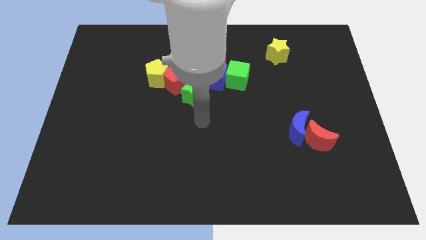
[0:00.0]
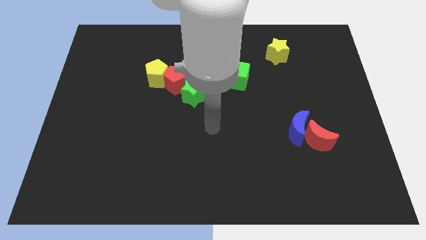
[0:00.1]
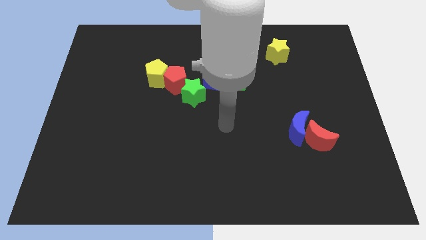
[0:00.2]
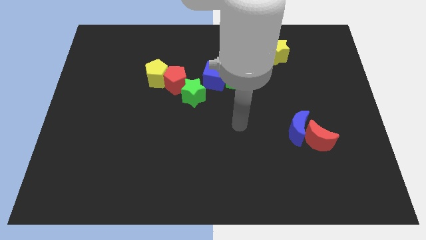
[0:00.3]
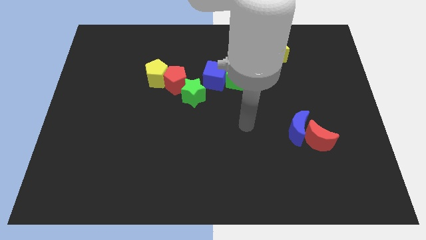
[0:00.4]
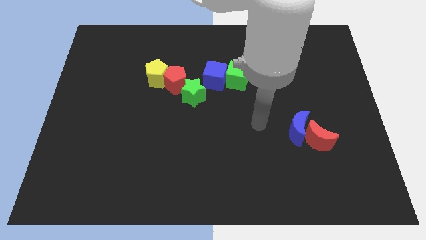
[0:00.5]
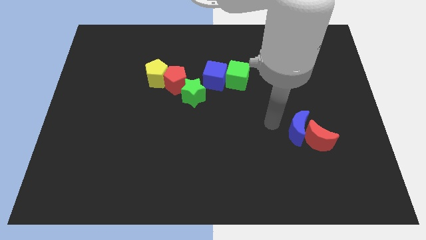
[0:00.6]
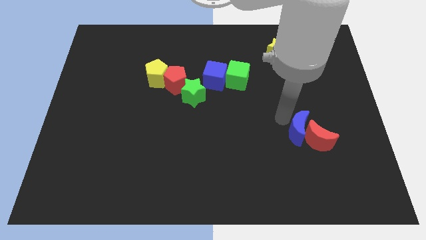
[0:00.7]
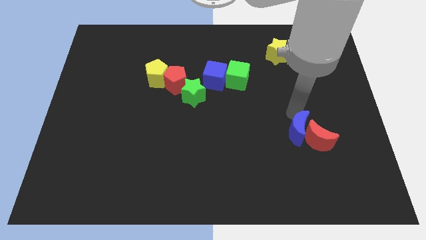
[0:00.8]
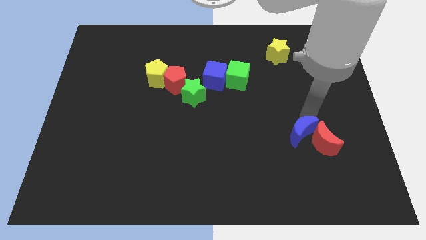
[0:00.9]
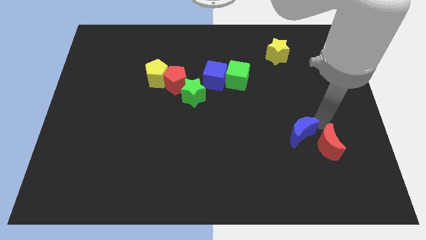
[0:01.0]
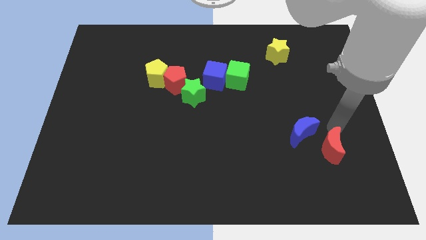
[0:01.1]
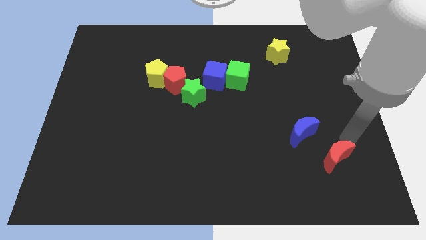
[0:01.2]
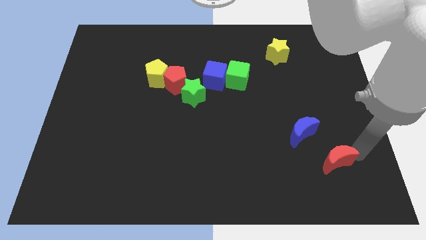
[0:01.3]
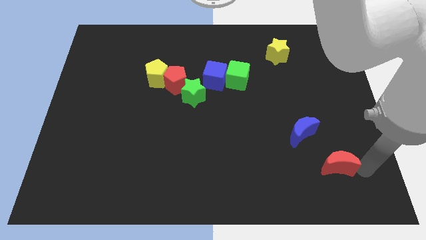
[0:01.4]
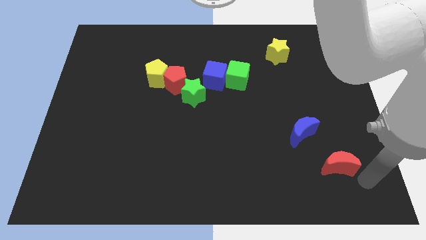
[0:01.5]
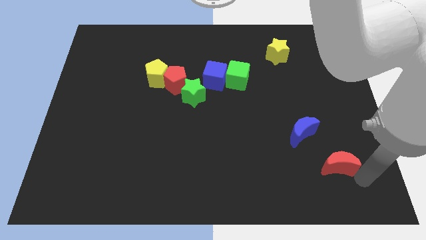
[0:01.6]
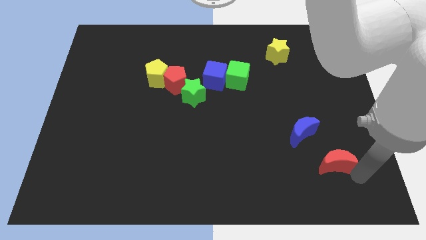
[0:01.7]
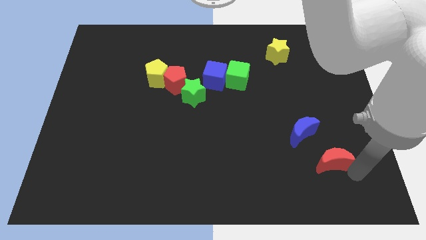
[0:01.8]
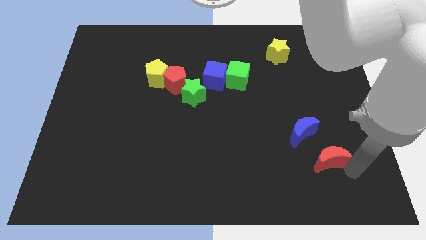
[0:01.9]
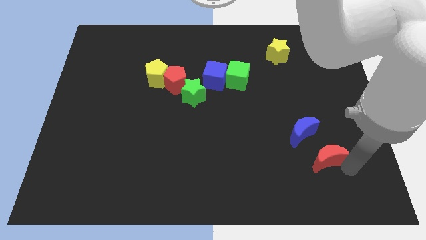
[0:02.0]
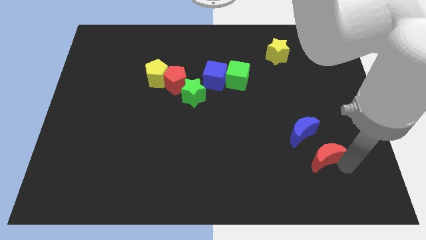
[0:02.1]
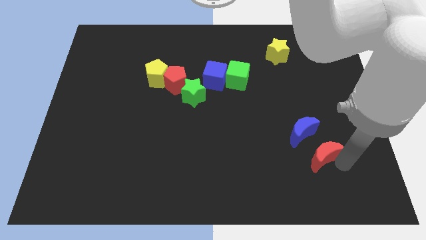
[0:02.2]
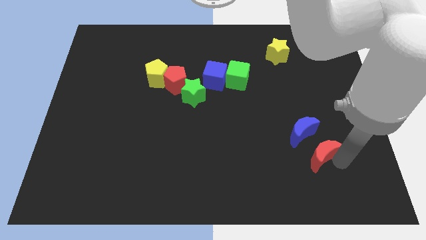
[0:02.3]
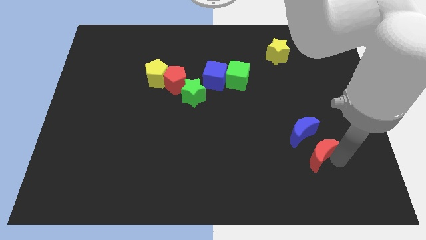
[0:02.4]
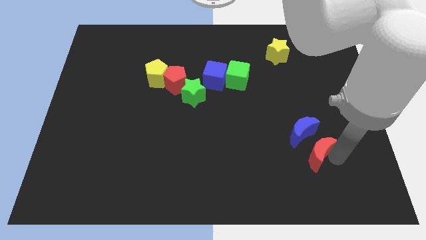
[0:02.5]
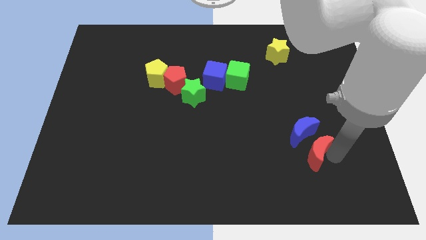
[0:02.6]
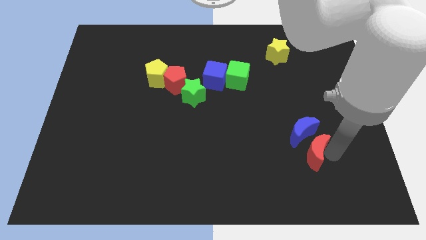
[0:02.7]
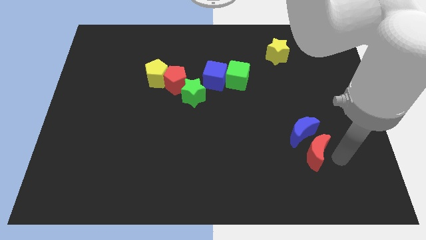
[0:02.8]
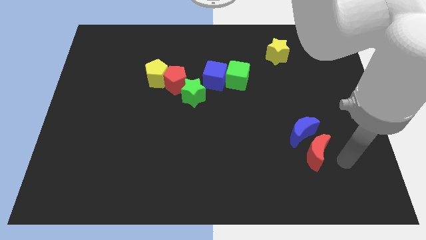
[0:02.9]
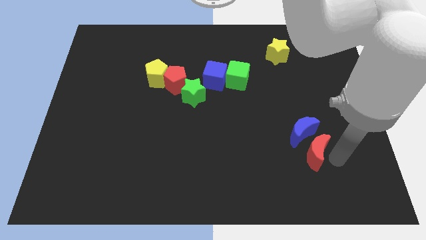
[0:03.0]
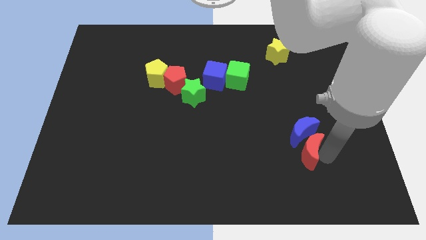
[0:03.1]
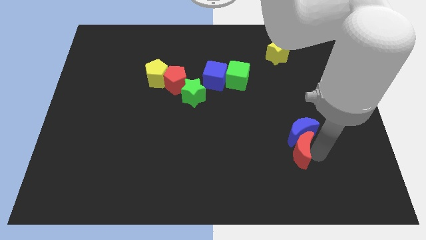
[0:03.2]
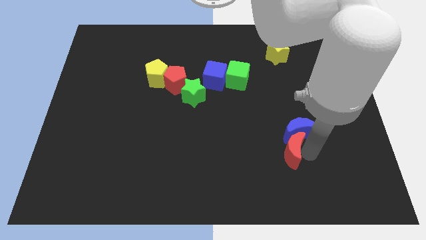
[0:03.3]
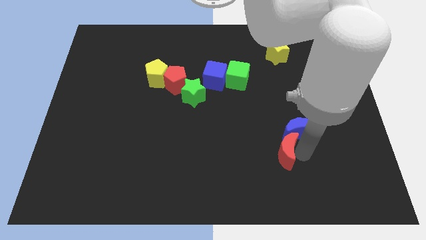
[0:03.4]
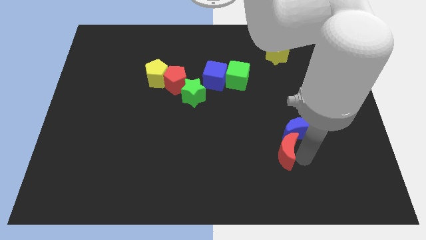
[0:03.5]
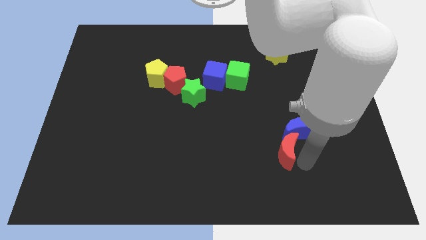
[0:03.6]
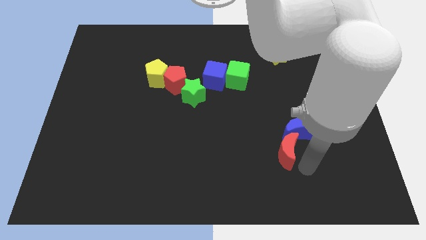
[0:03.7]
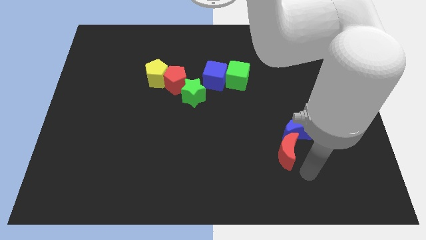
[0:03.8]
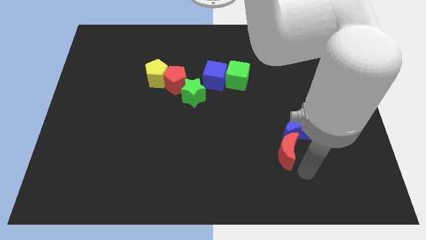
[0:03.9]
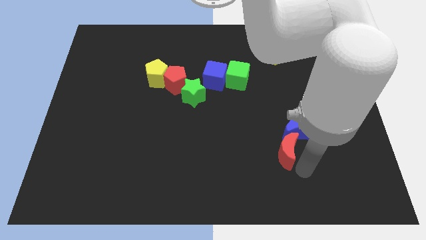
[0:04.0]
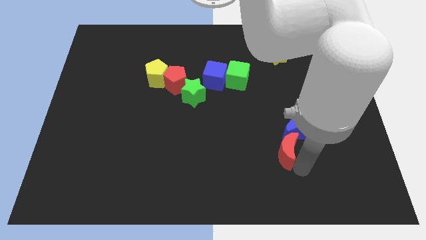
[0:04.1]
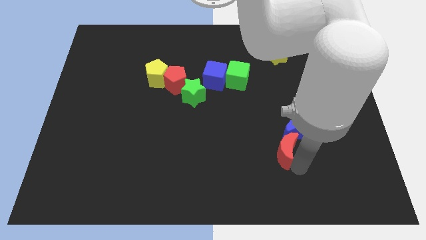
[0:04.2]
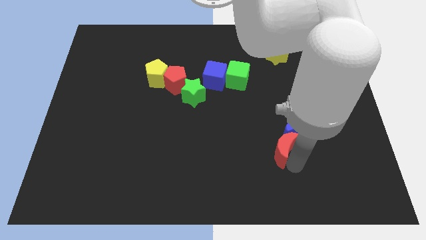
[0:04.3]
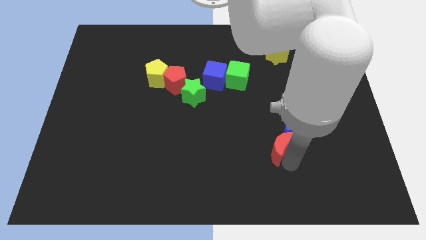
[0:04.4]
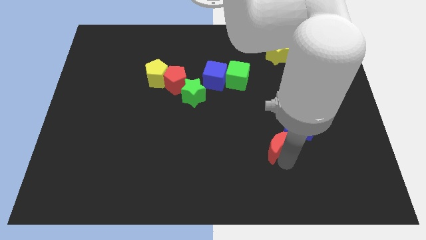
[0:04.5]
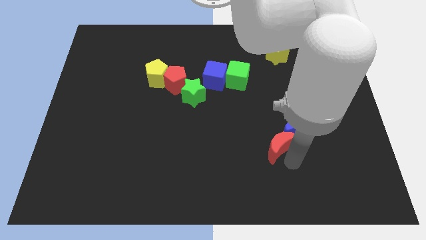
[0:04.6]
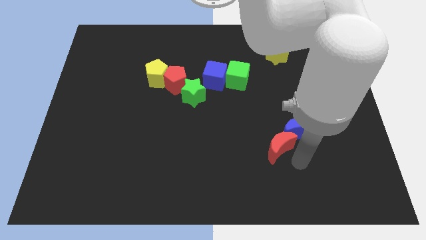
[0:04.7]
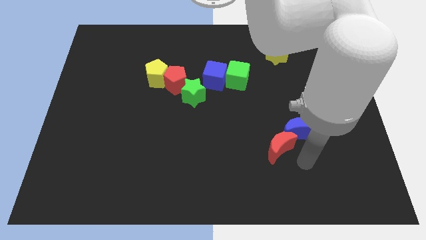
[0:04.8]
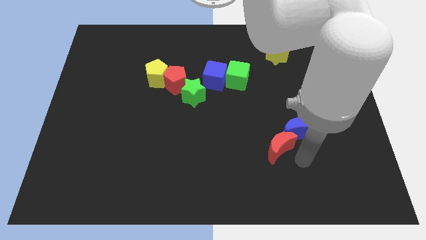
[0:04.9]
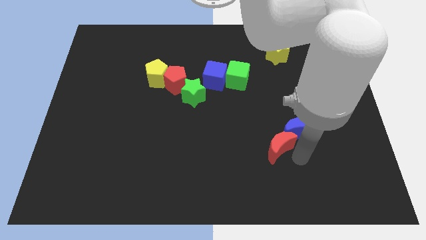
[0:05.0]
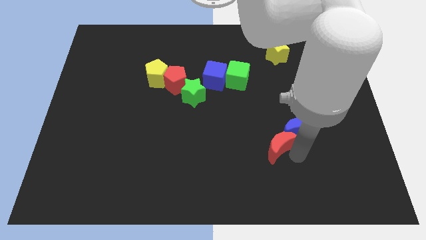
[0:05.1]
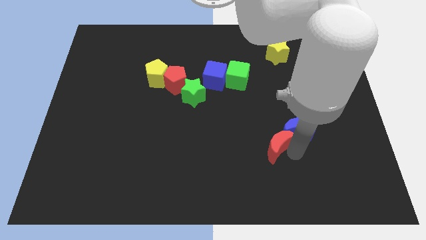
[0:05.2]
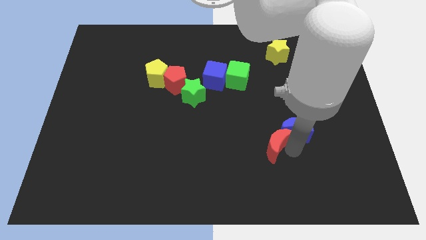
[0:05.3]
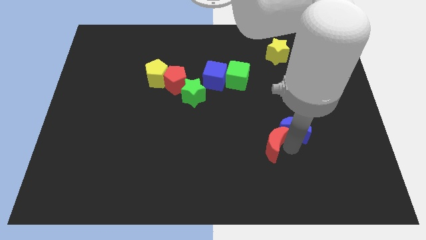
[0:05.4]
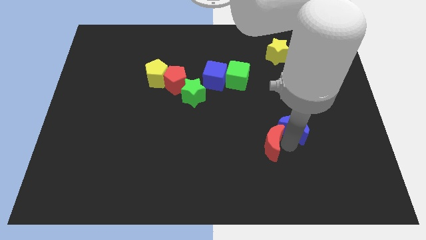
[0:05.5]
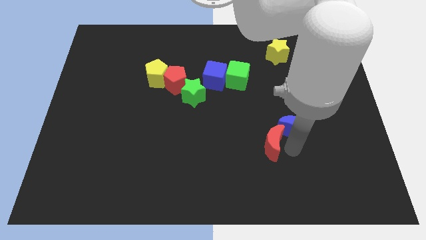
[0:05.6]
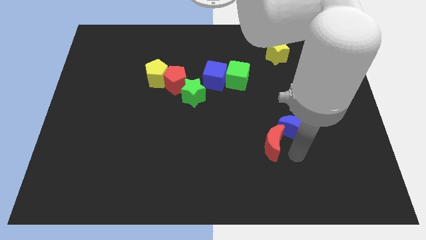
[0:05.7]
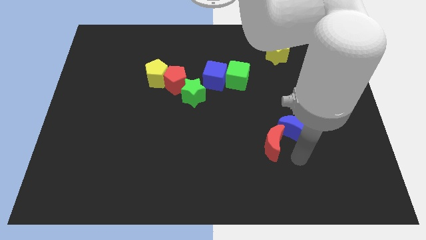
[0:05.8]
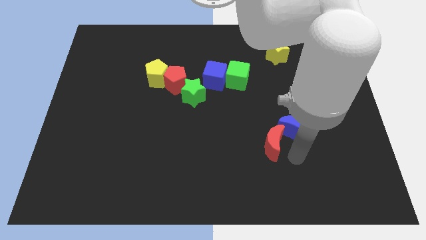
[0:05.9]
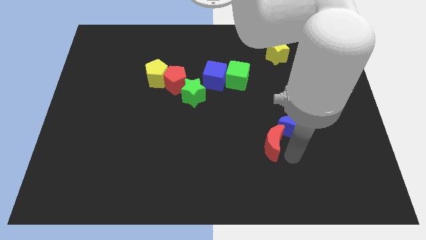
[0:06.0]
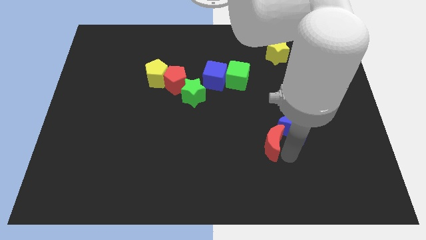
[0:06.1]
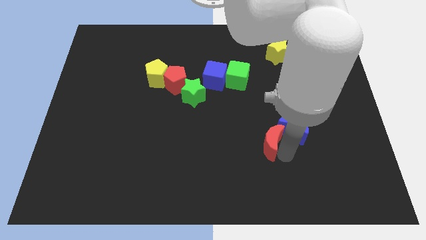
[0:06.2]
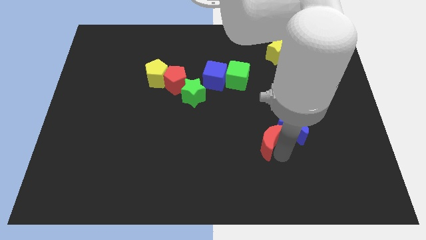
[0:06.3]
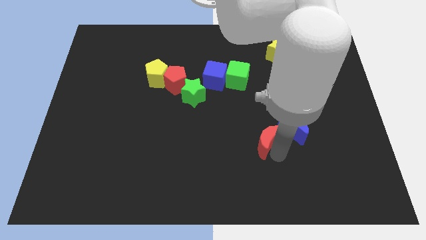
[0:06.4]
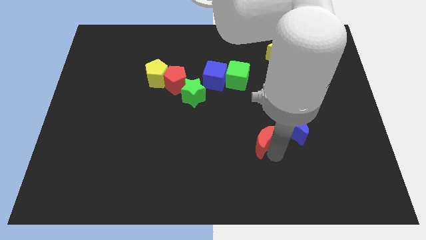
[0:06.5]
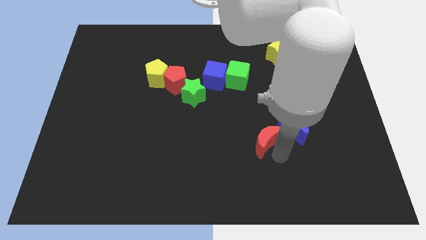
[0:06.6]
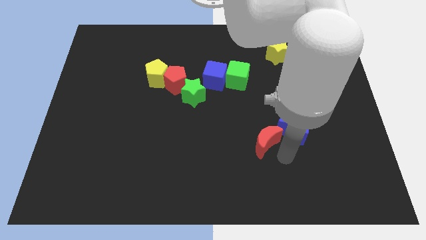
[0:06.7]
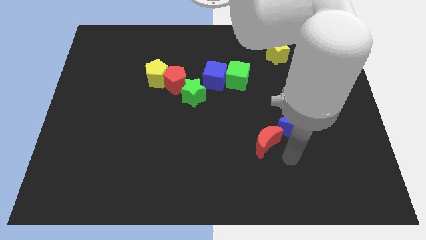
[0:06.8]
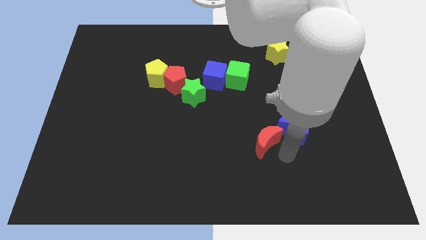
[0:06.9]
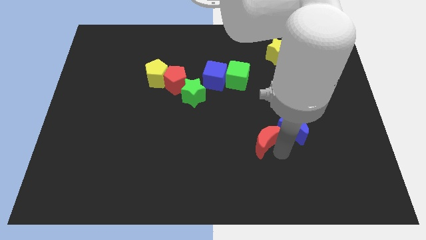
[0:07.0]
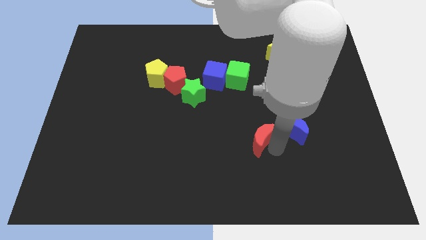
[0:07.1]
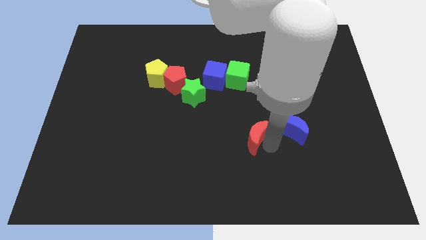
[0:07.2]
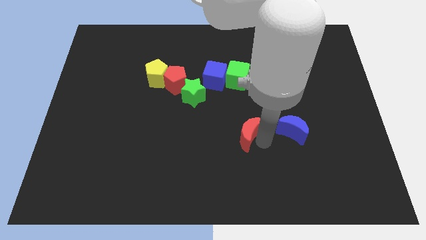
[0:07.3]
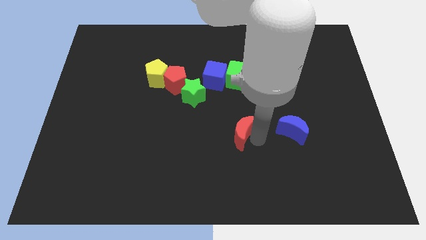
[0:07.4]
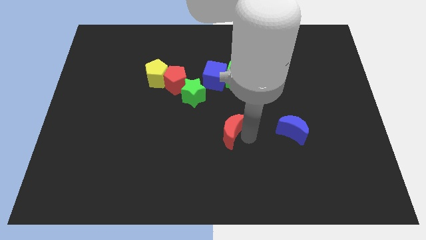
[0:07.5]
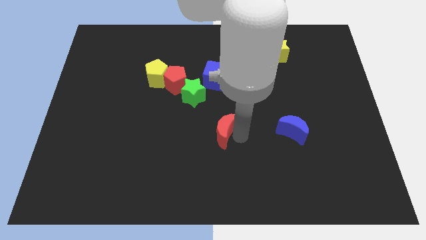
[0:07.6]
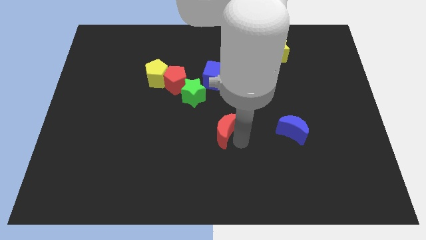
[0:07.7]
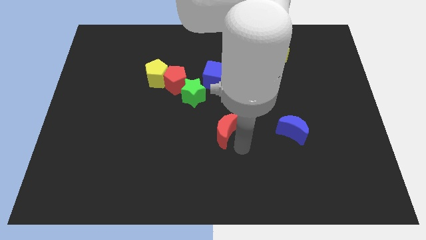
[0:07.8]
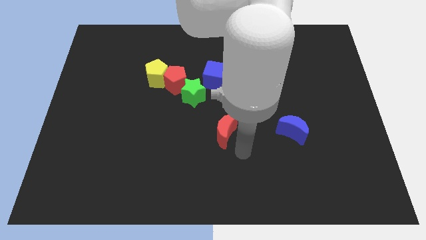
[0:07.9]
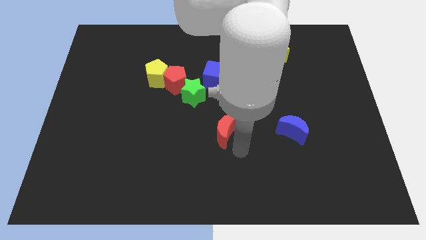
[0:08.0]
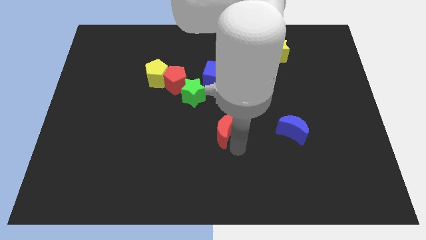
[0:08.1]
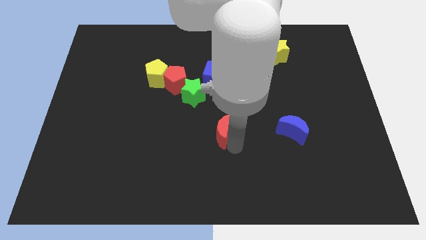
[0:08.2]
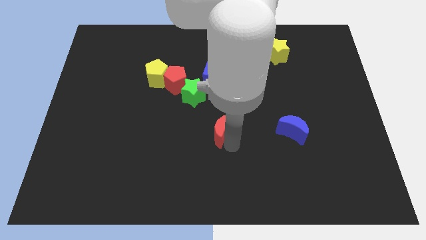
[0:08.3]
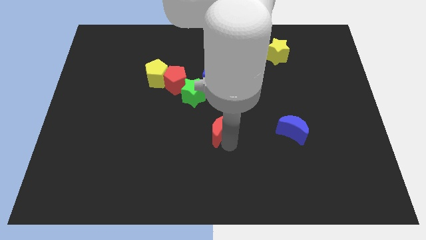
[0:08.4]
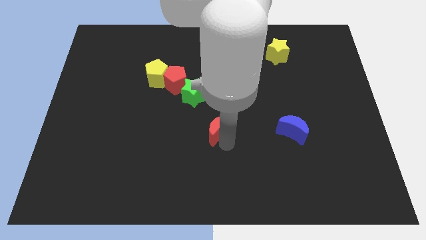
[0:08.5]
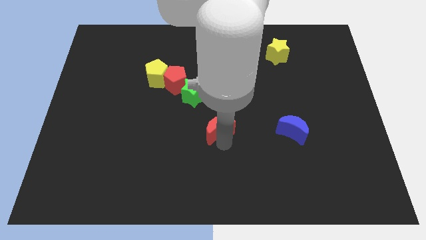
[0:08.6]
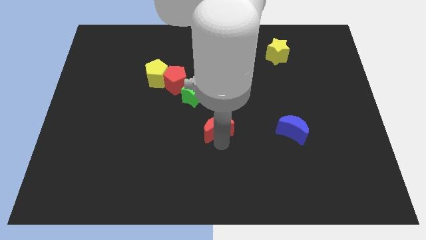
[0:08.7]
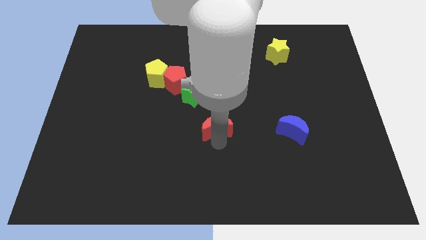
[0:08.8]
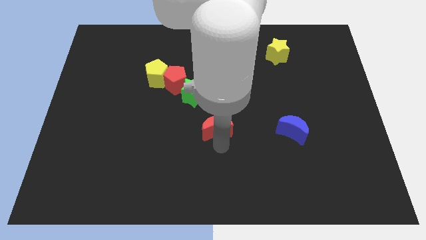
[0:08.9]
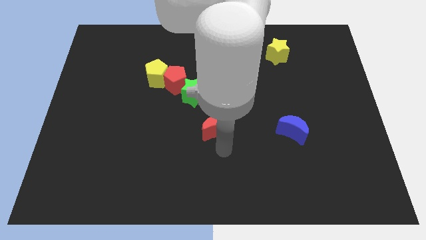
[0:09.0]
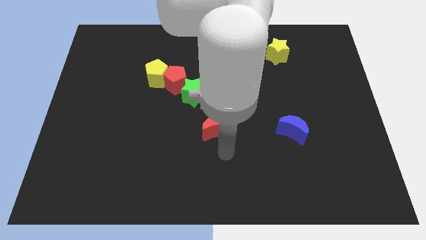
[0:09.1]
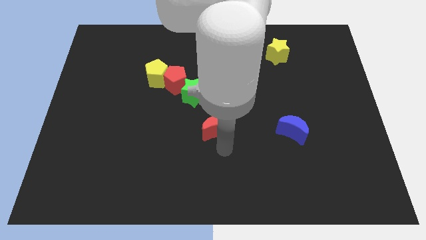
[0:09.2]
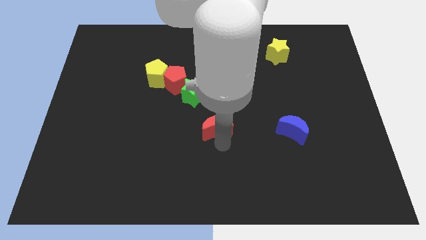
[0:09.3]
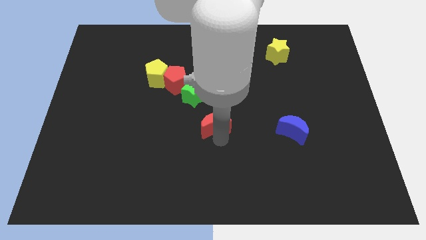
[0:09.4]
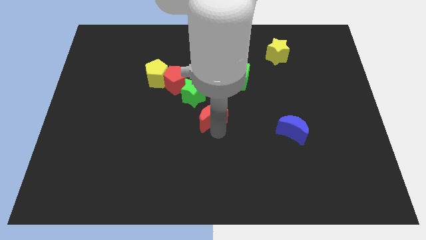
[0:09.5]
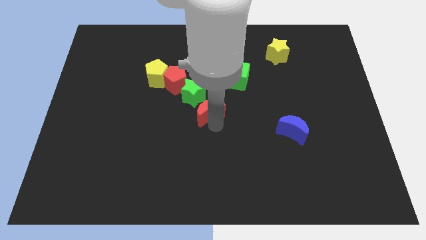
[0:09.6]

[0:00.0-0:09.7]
slide the red moon to the bottom right of the red pentagon
